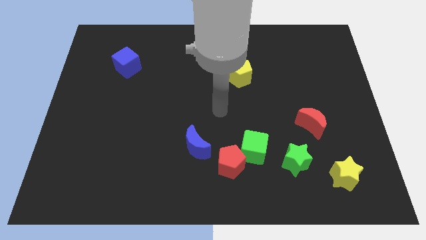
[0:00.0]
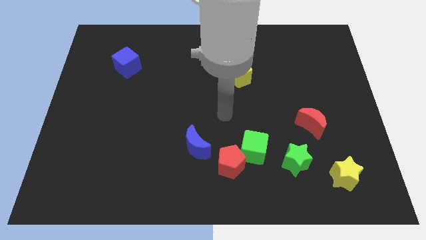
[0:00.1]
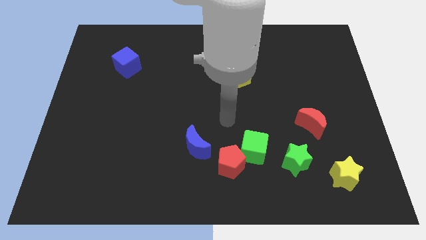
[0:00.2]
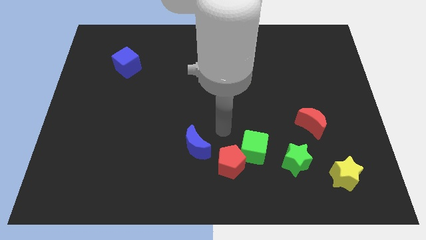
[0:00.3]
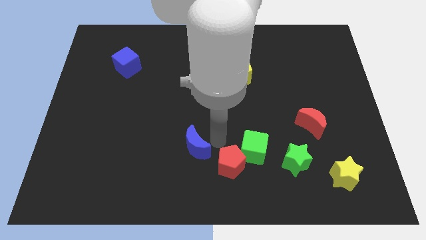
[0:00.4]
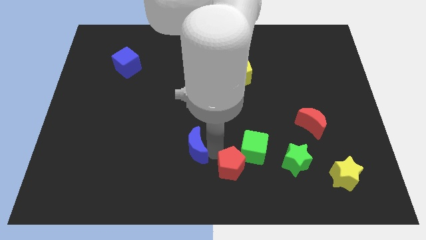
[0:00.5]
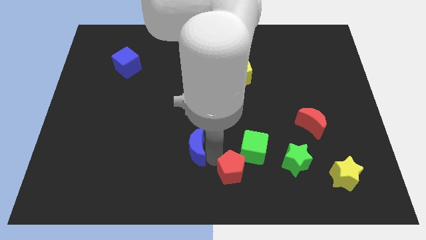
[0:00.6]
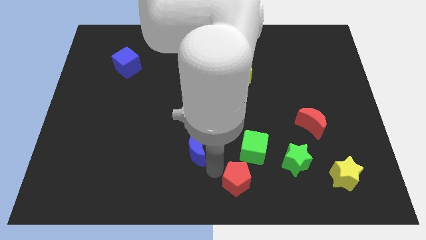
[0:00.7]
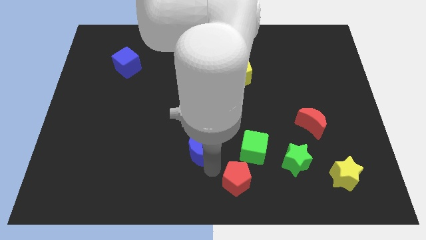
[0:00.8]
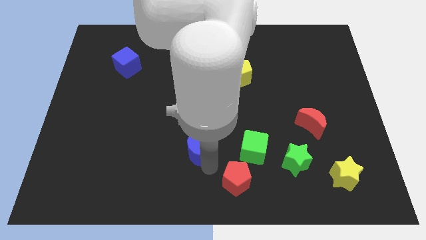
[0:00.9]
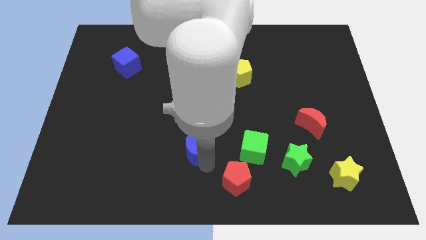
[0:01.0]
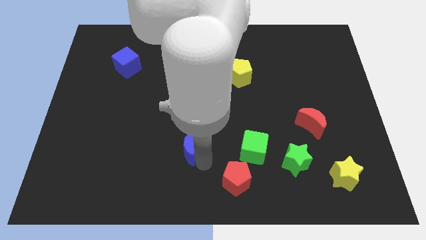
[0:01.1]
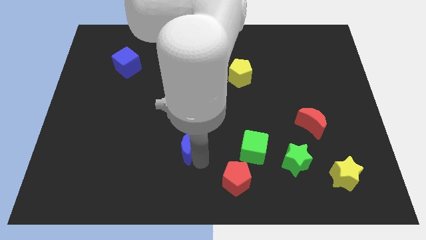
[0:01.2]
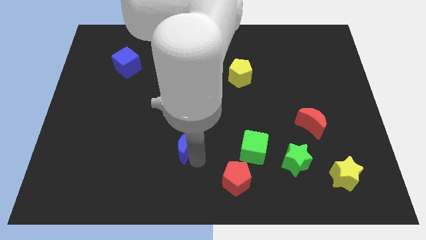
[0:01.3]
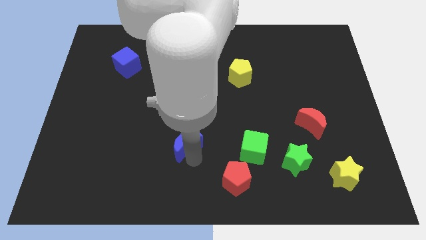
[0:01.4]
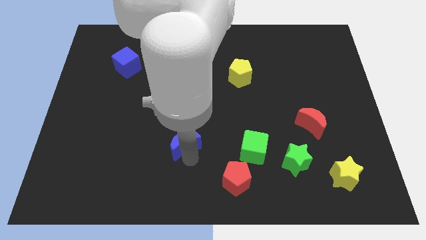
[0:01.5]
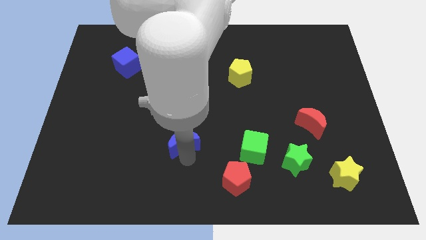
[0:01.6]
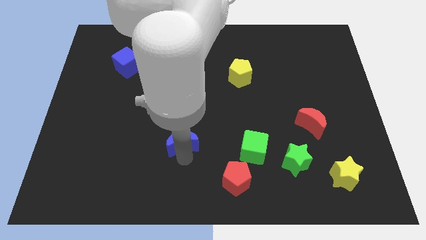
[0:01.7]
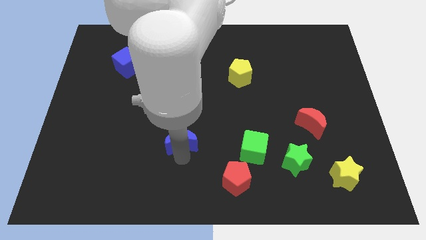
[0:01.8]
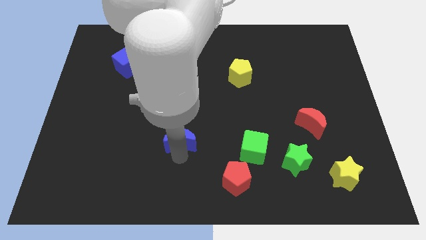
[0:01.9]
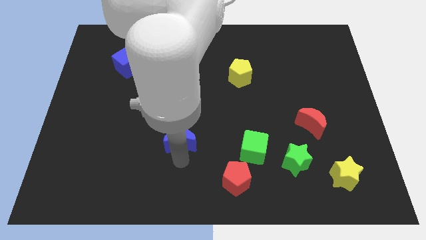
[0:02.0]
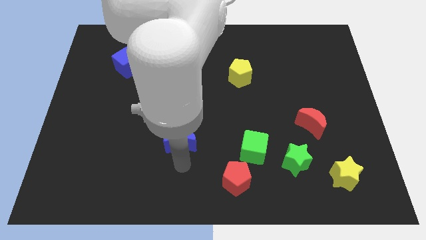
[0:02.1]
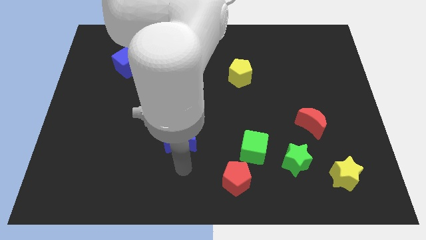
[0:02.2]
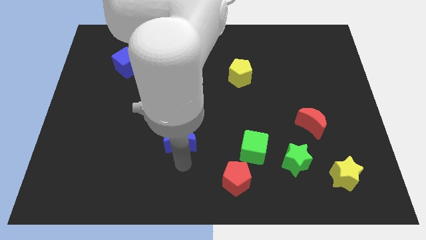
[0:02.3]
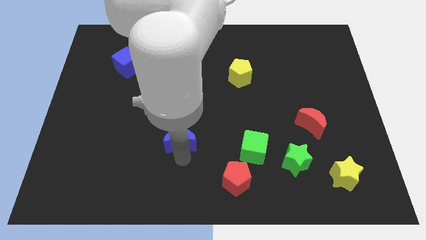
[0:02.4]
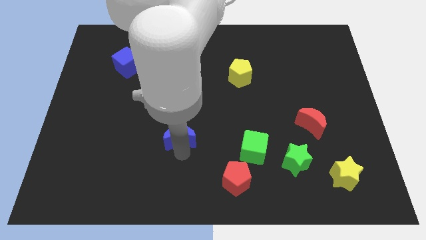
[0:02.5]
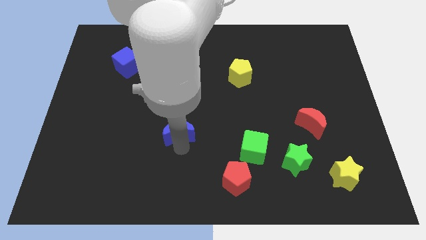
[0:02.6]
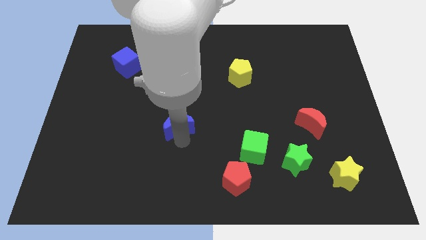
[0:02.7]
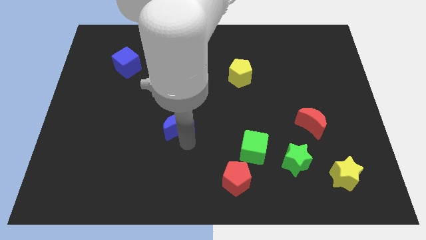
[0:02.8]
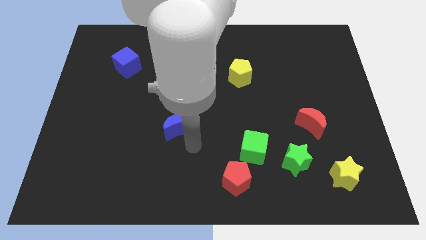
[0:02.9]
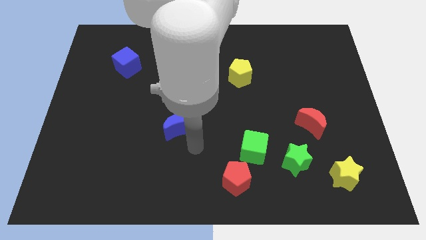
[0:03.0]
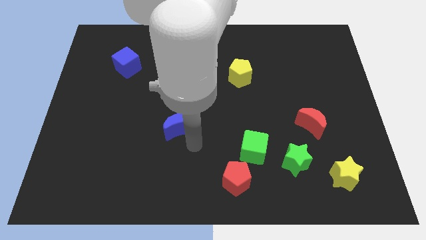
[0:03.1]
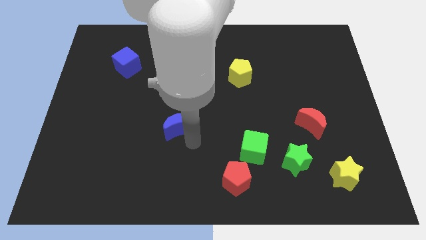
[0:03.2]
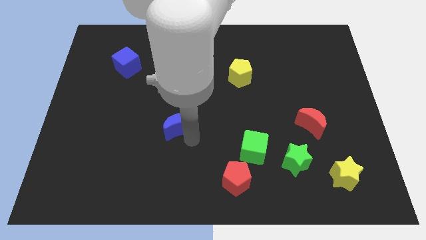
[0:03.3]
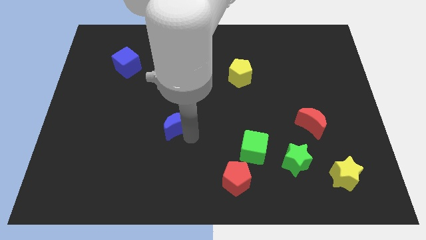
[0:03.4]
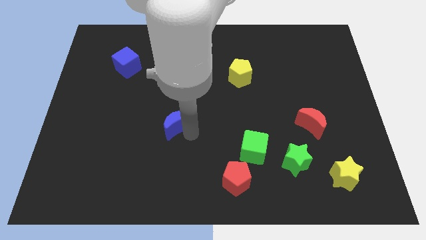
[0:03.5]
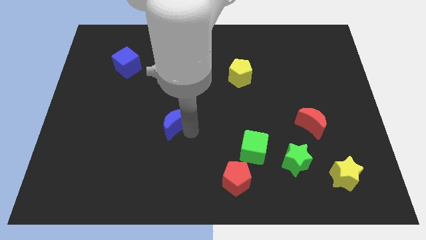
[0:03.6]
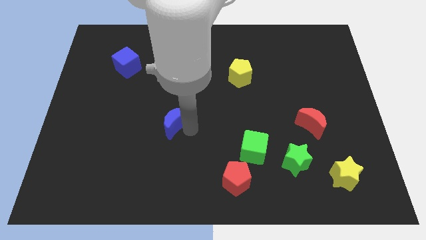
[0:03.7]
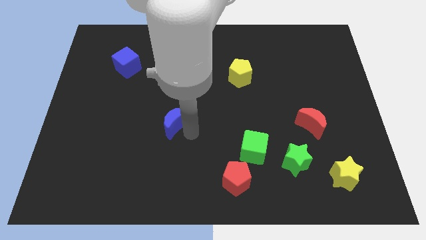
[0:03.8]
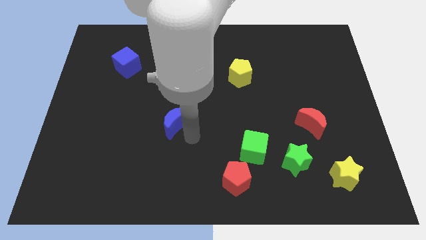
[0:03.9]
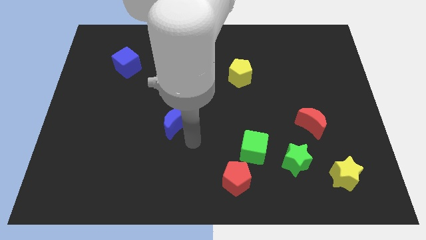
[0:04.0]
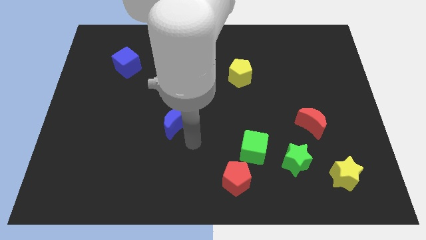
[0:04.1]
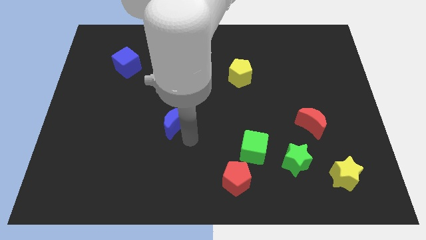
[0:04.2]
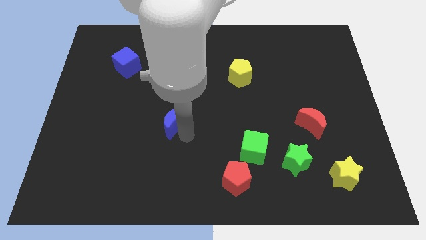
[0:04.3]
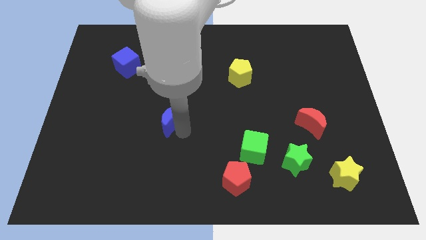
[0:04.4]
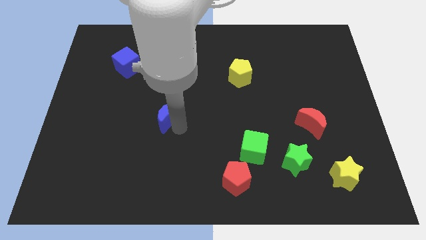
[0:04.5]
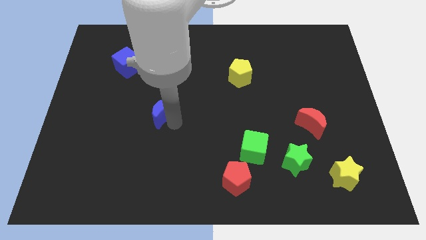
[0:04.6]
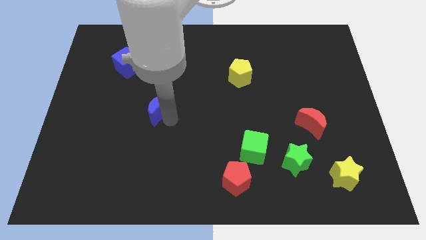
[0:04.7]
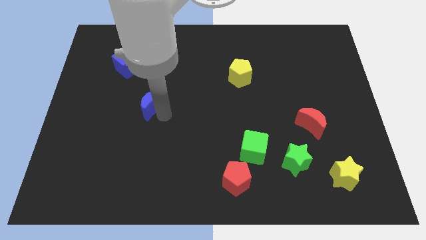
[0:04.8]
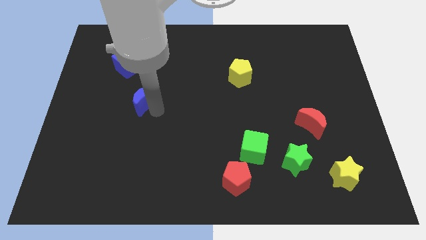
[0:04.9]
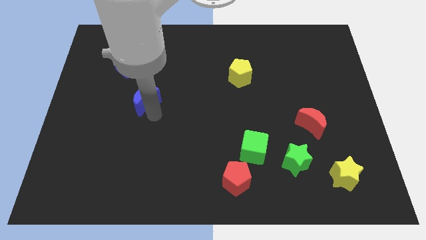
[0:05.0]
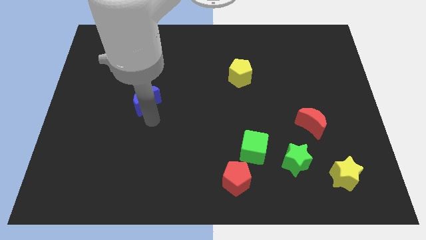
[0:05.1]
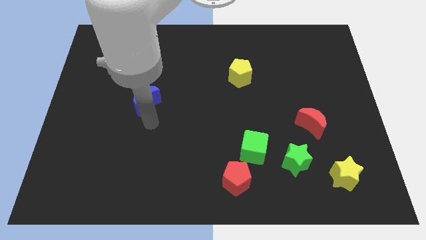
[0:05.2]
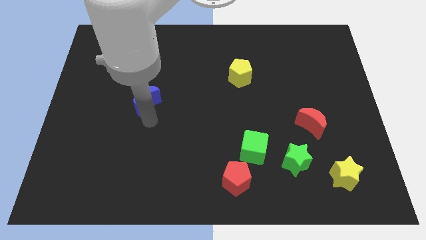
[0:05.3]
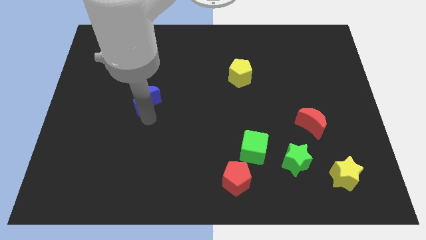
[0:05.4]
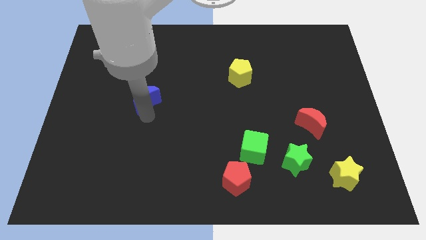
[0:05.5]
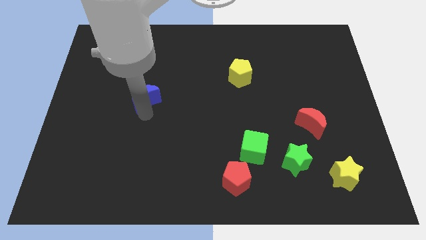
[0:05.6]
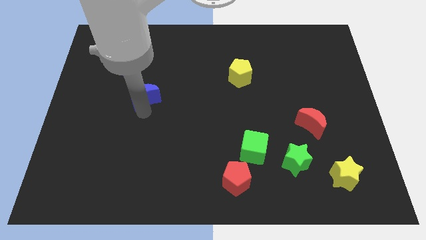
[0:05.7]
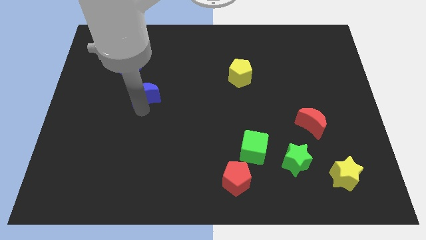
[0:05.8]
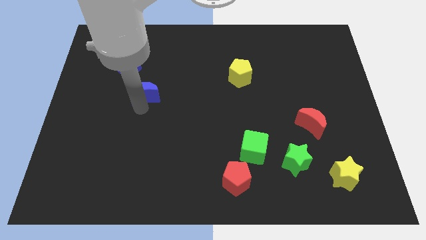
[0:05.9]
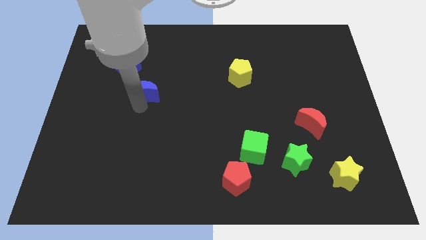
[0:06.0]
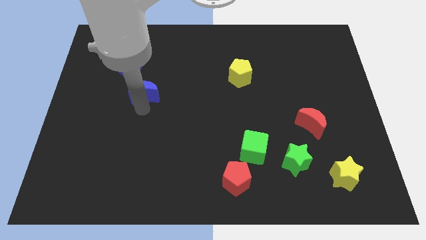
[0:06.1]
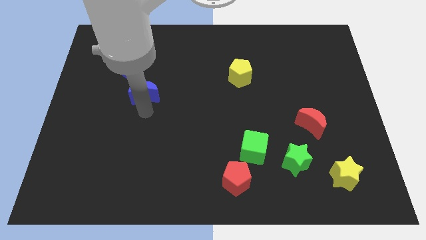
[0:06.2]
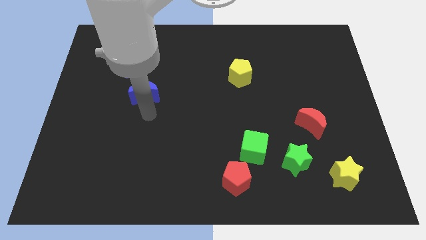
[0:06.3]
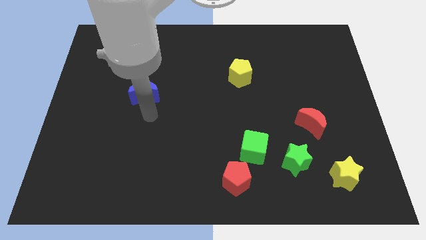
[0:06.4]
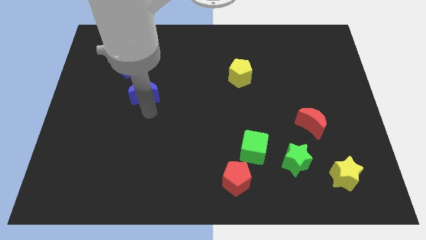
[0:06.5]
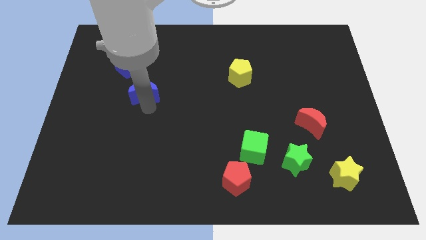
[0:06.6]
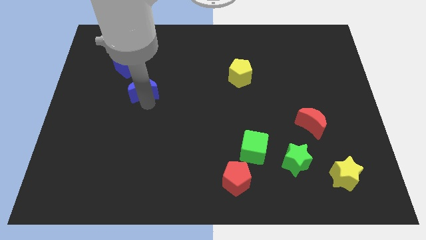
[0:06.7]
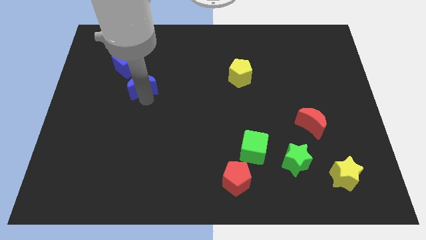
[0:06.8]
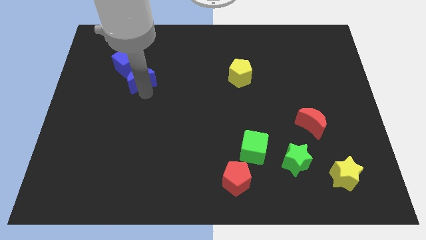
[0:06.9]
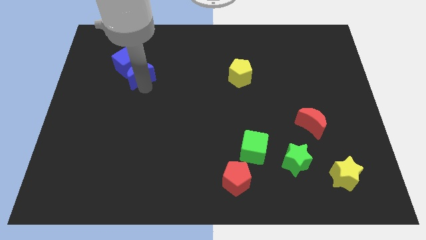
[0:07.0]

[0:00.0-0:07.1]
move the blue moon close to the blue cube

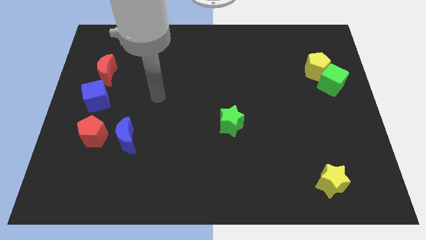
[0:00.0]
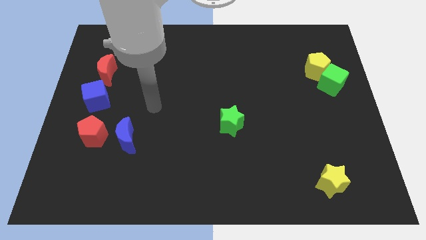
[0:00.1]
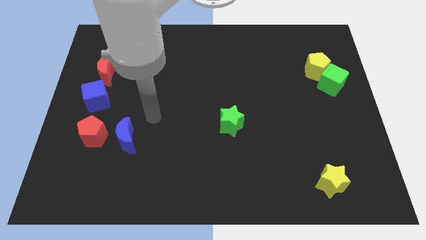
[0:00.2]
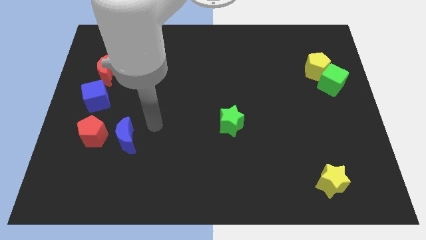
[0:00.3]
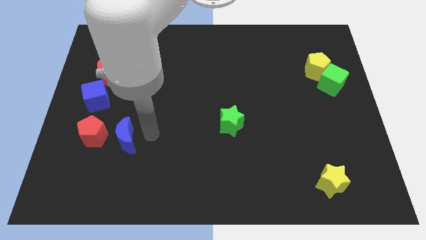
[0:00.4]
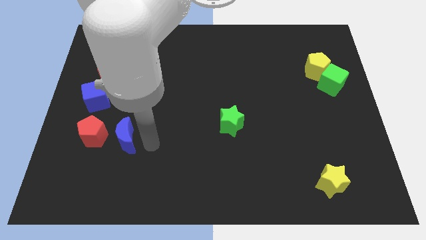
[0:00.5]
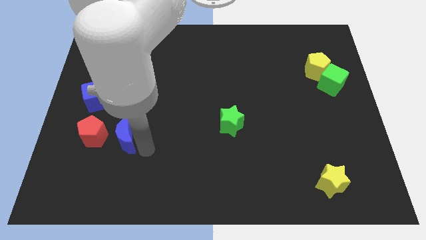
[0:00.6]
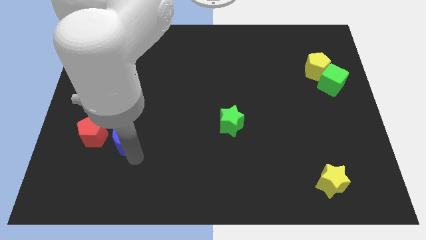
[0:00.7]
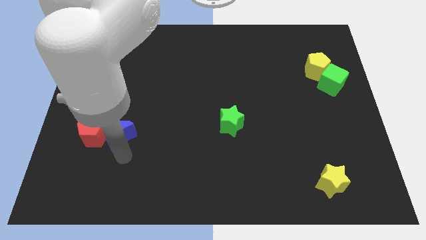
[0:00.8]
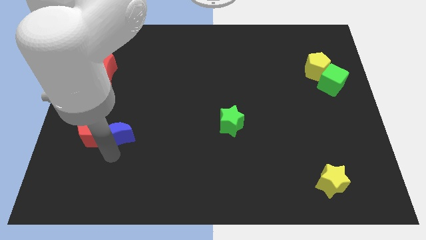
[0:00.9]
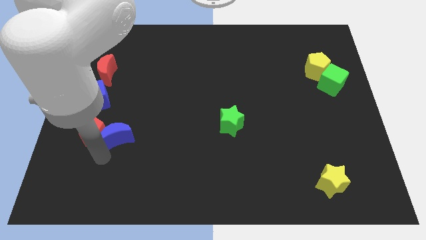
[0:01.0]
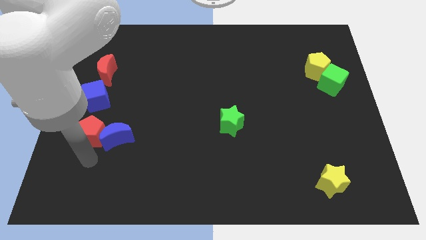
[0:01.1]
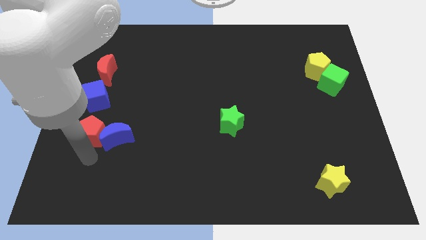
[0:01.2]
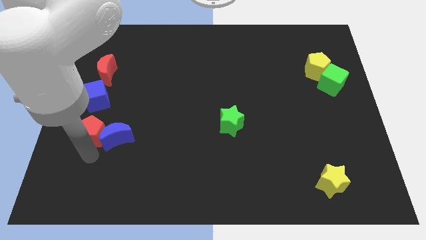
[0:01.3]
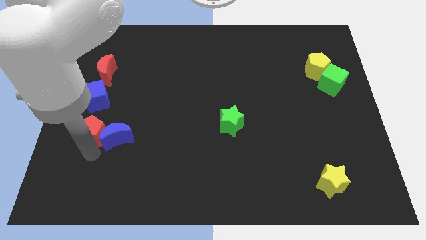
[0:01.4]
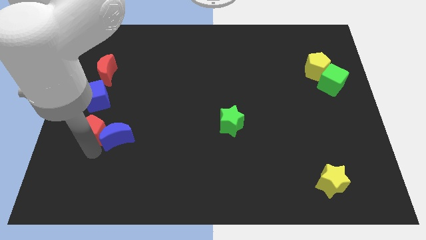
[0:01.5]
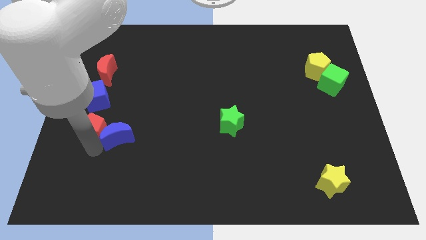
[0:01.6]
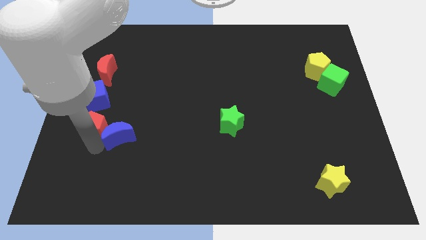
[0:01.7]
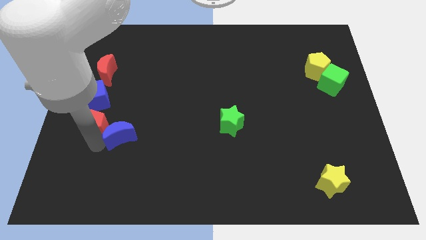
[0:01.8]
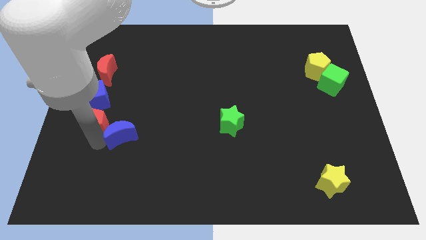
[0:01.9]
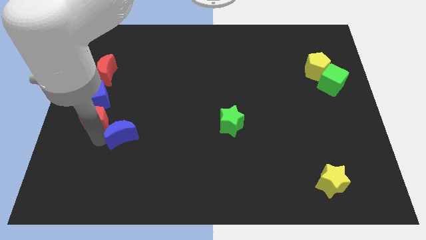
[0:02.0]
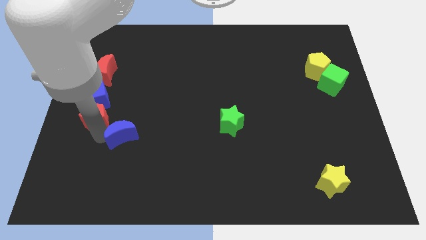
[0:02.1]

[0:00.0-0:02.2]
move the red pentagon towards the blue cube
